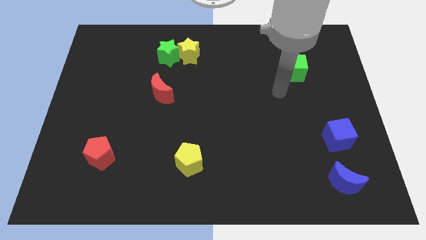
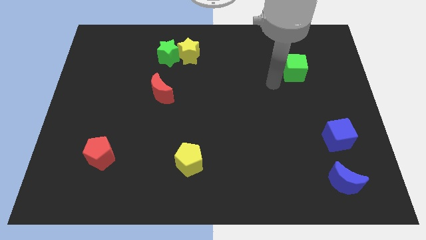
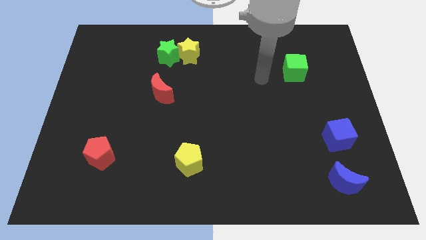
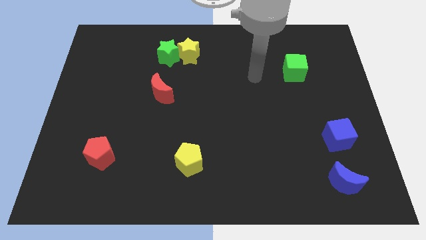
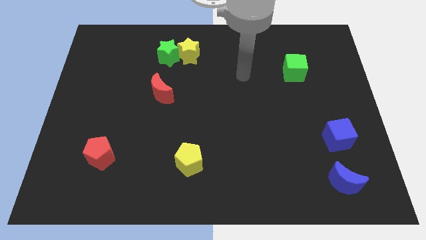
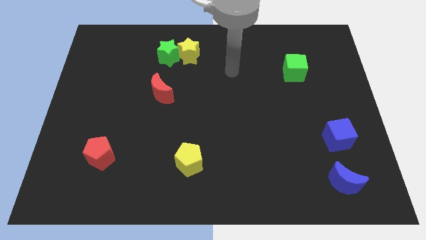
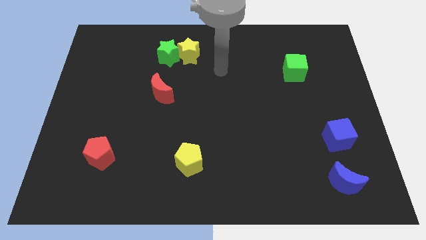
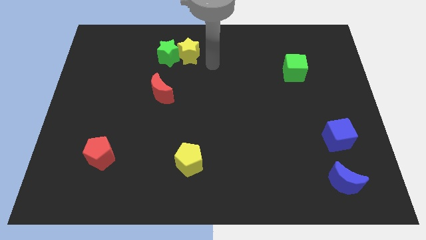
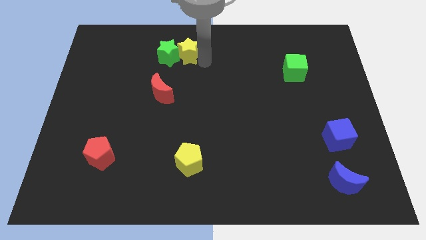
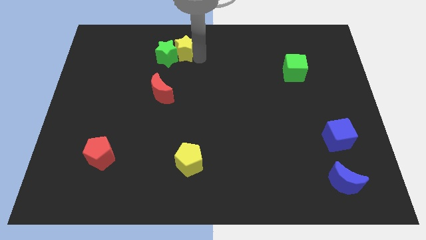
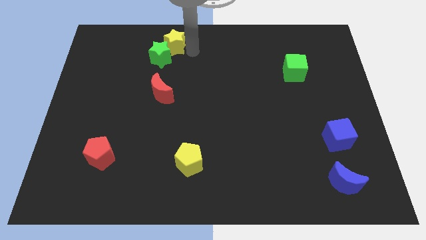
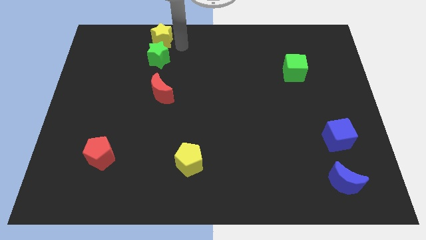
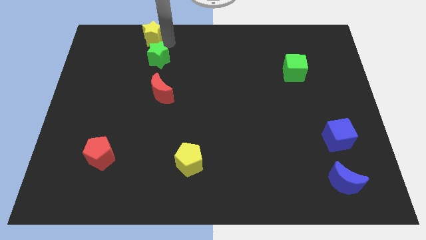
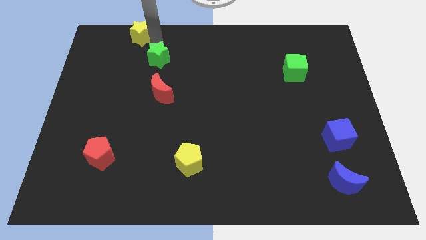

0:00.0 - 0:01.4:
separate the green star from the yellow star

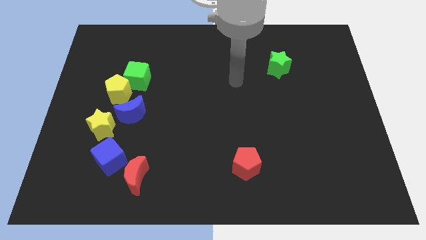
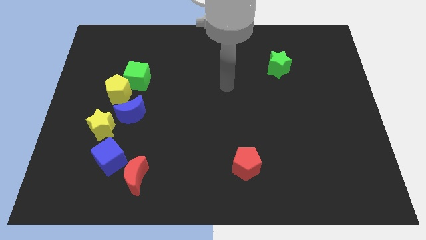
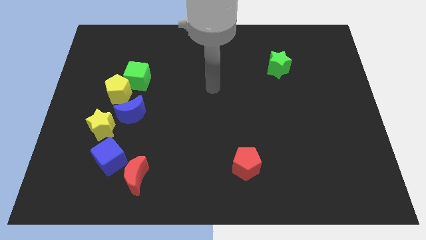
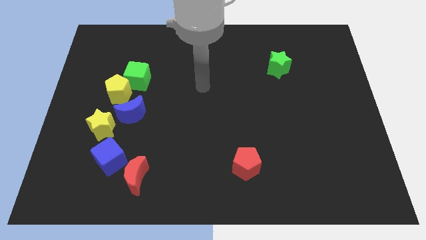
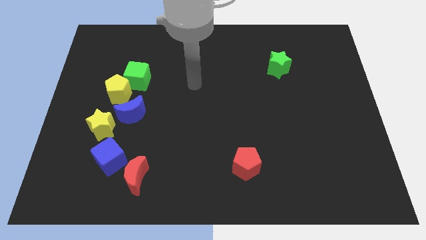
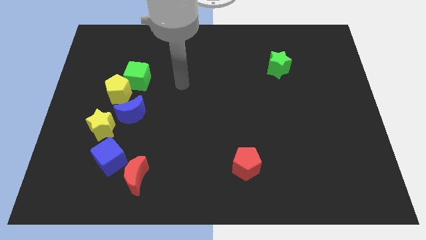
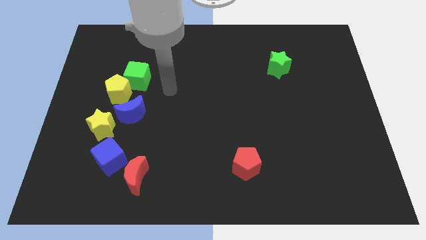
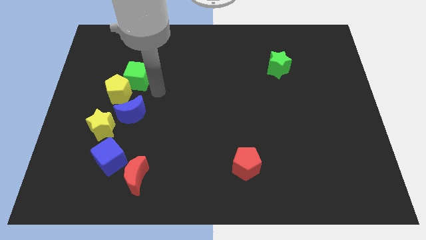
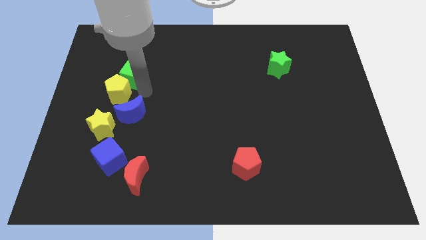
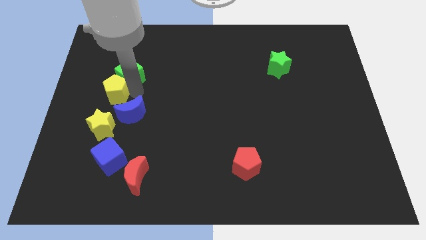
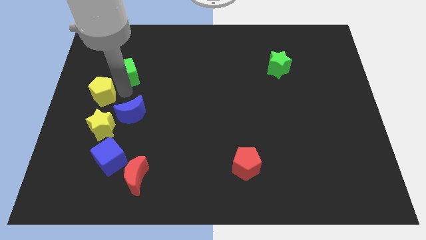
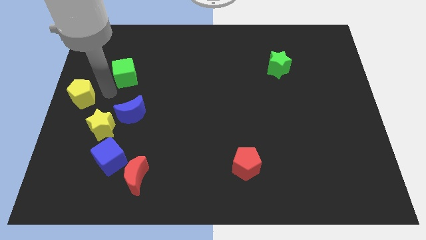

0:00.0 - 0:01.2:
separate the green cube from the yellow pentagon

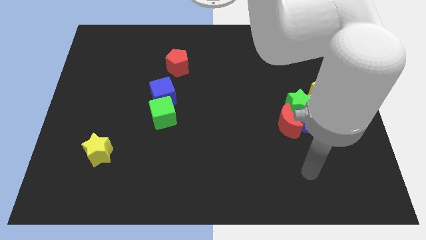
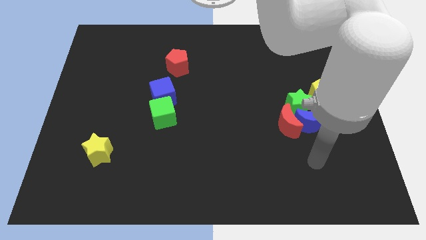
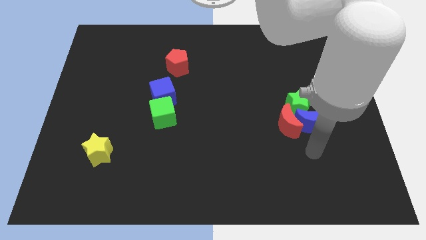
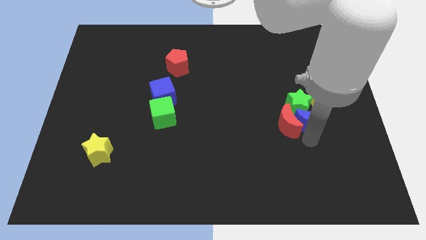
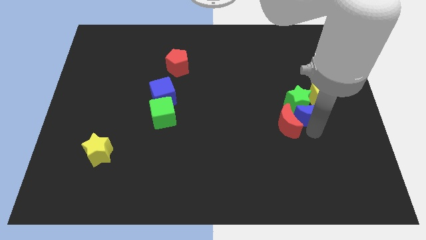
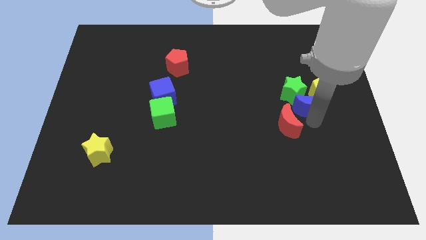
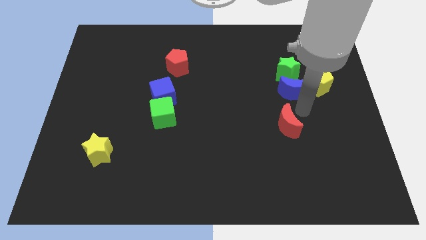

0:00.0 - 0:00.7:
separate the red moon from the blue moon and green star

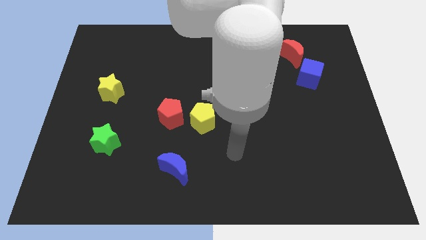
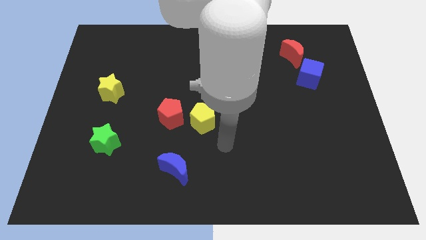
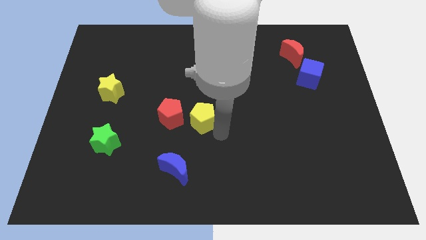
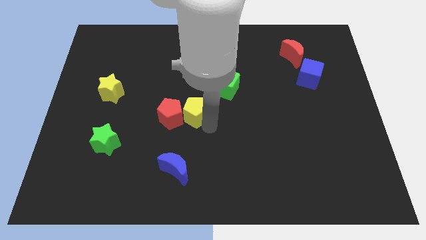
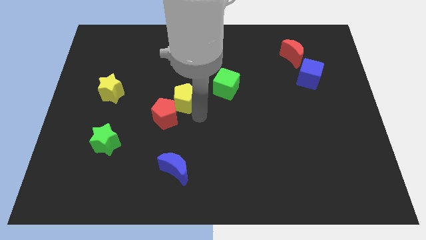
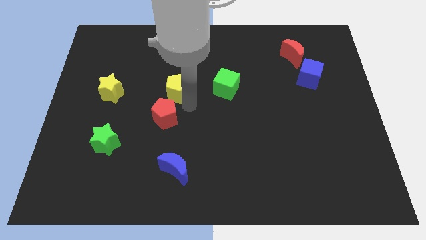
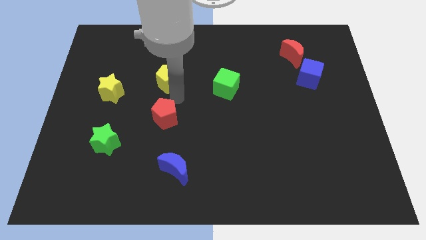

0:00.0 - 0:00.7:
pull the red pentagon apart from the yellow pentagon

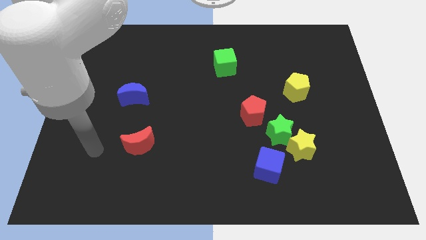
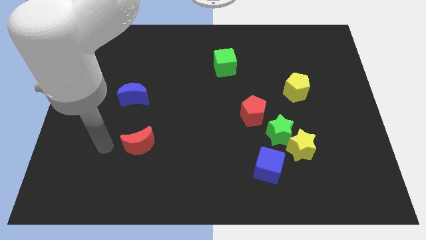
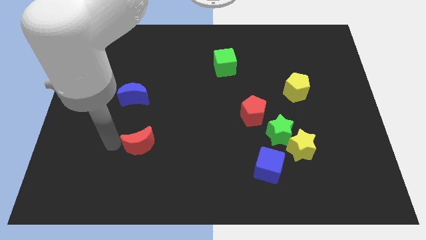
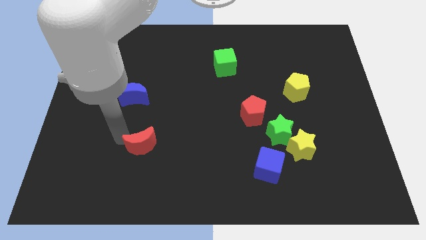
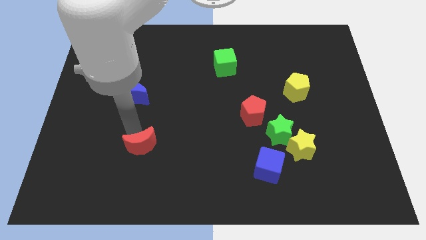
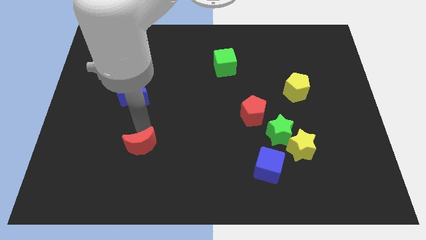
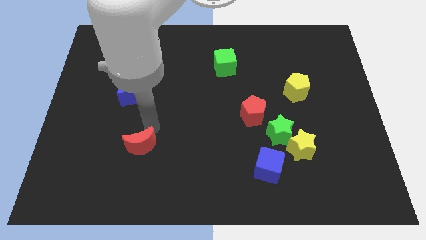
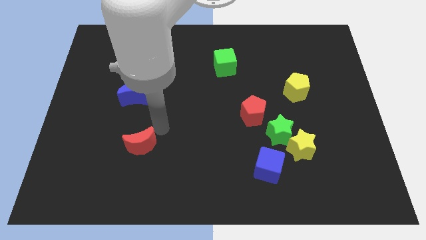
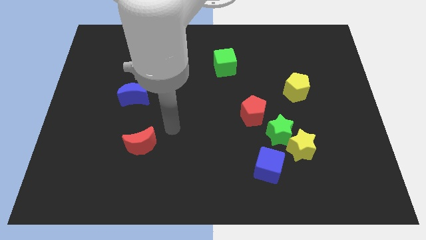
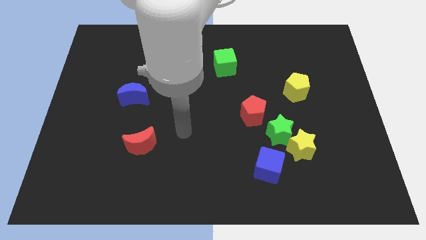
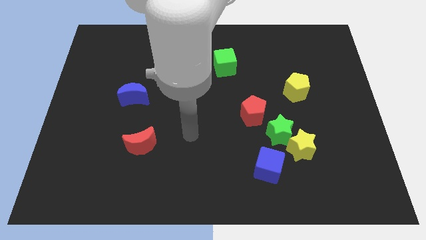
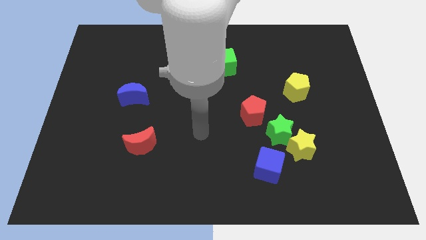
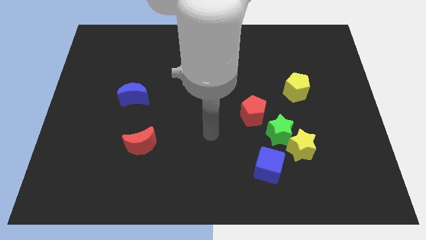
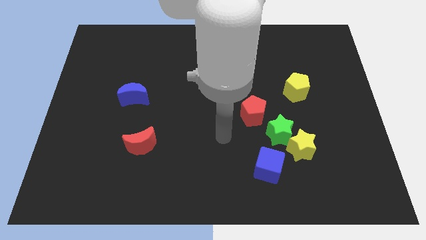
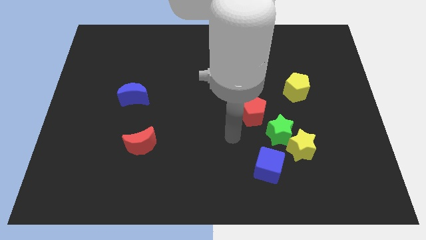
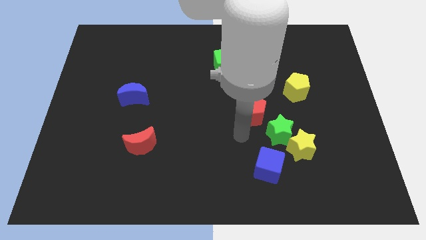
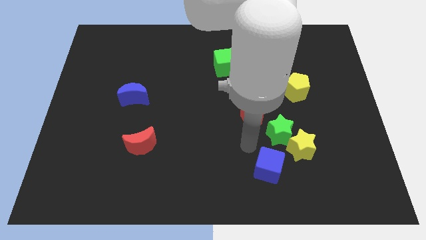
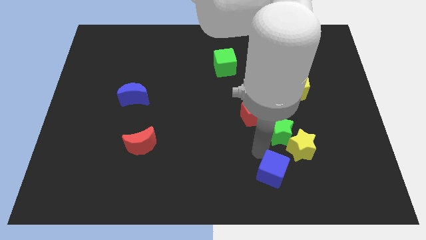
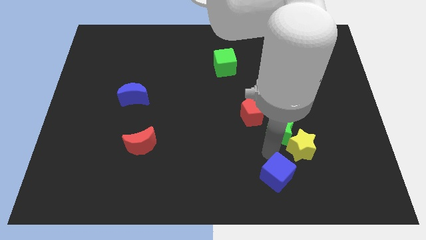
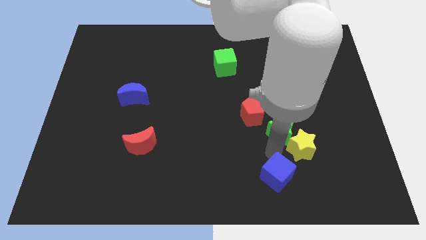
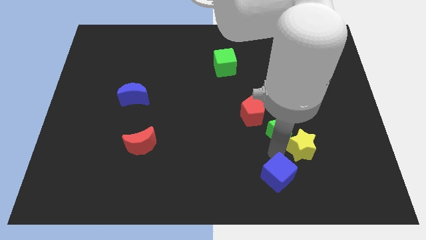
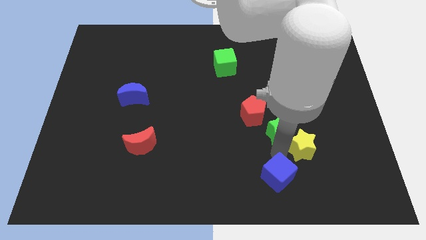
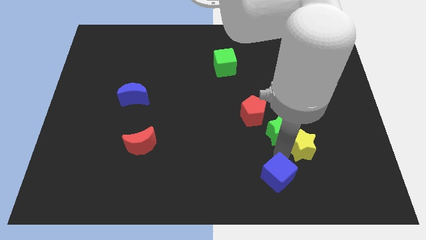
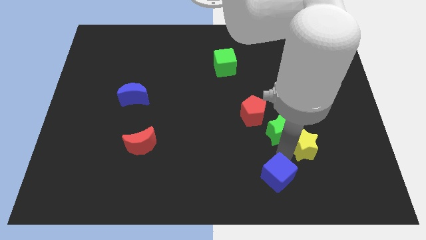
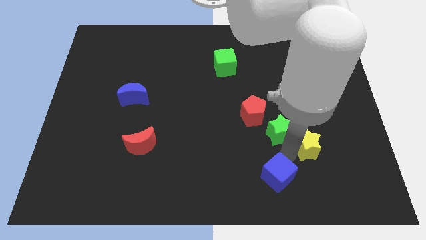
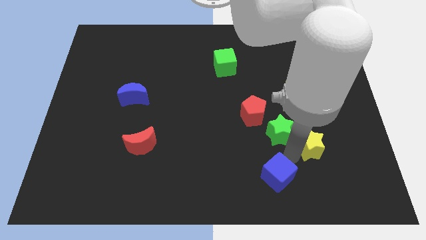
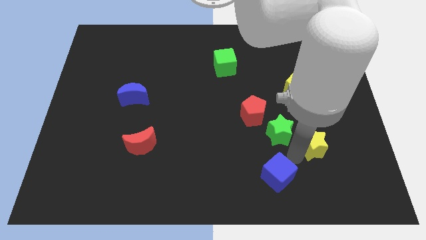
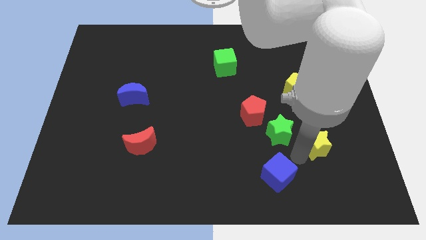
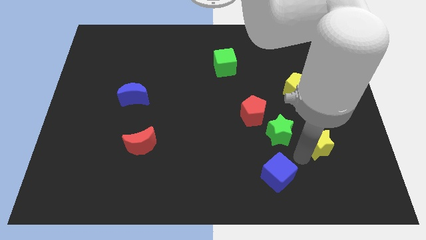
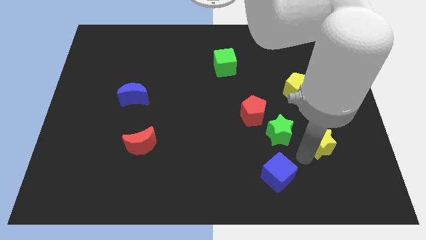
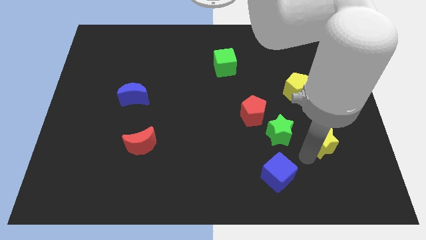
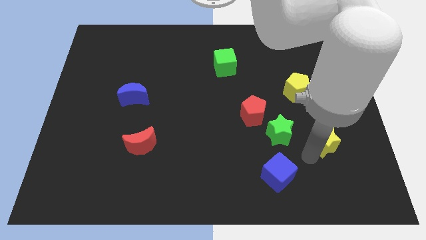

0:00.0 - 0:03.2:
separate the yellow star from the green star and blue cube

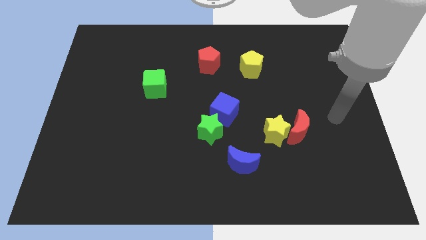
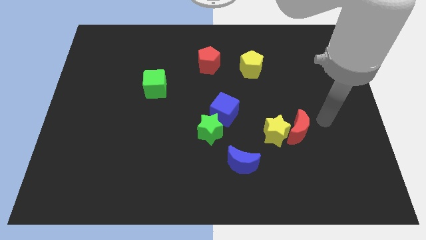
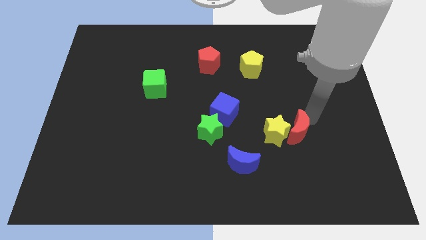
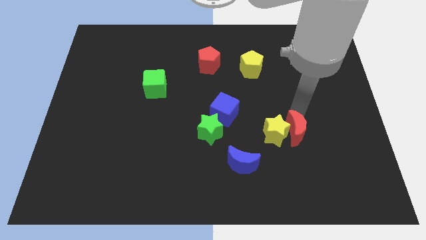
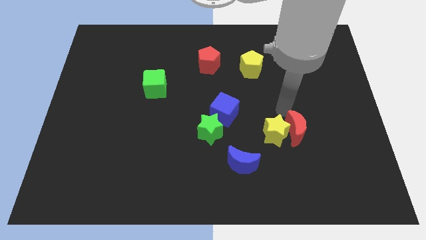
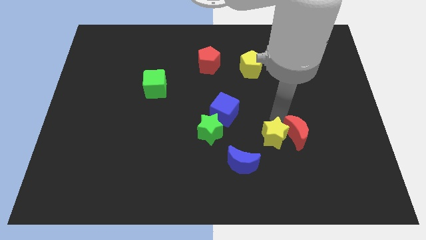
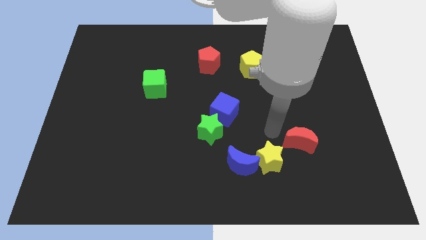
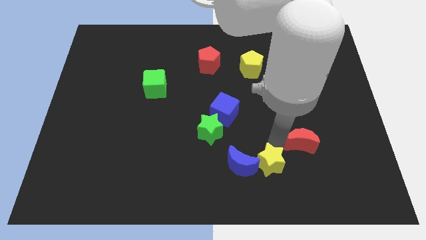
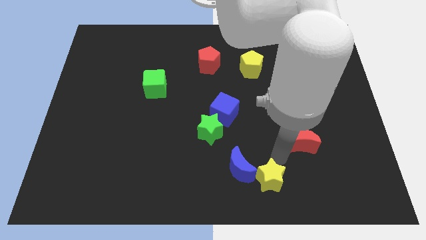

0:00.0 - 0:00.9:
pull the red moon apart from the yellow star

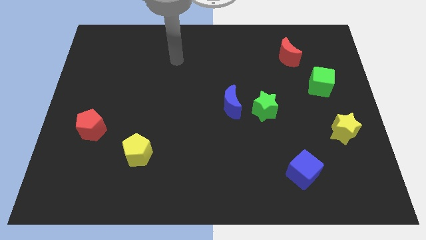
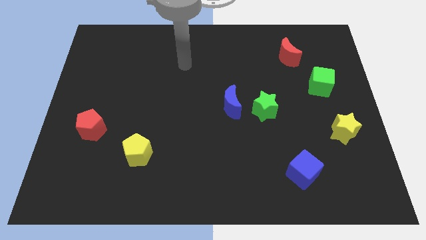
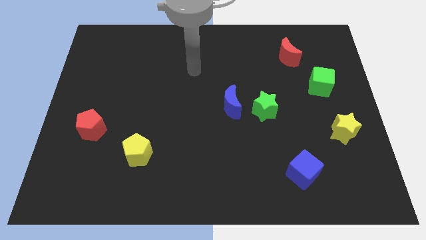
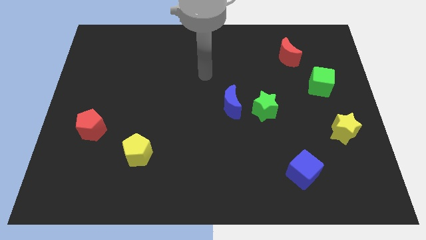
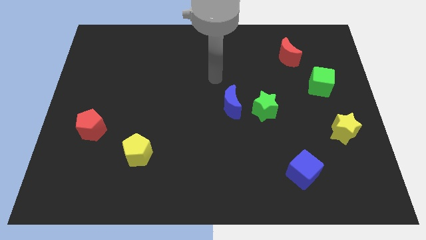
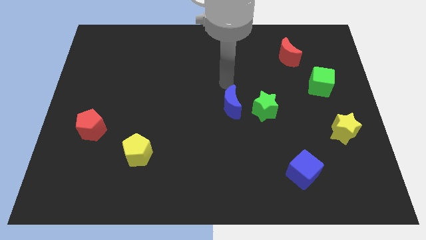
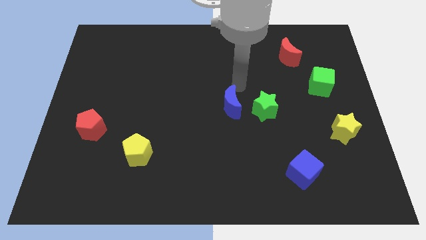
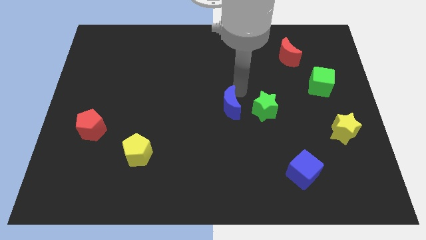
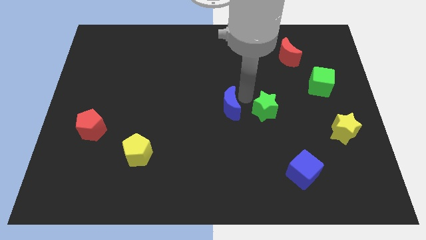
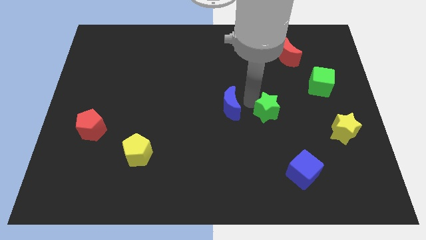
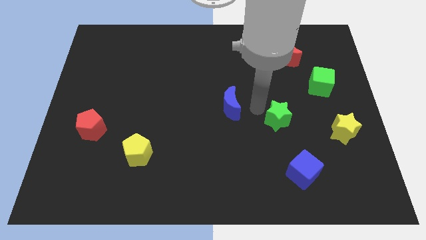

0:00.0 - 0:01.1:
move the blue moon away from the green star
